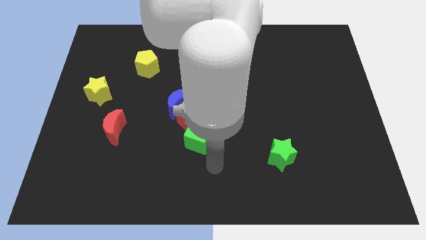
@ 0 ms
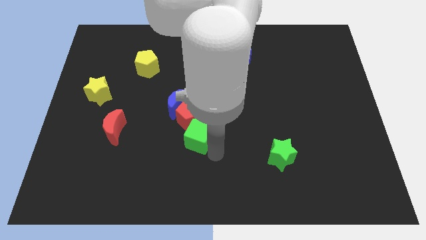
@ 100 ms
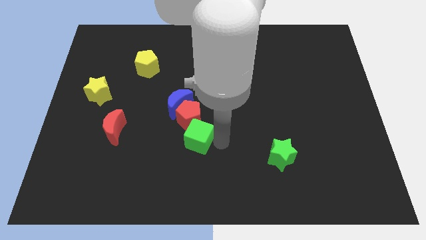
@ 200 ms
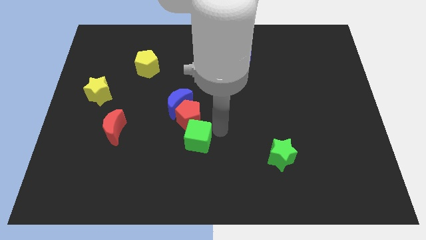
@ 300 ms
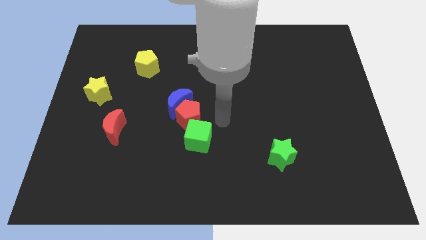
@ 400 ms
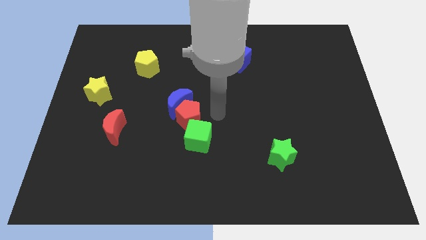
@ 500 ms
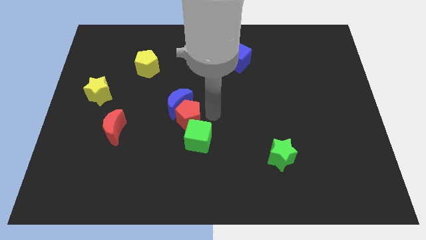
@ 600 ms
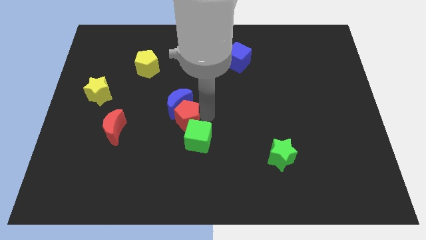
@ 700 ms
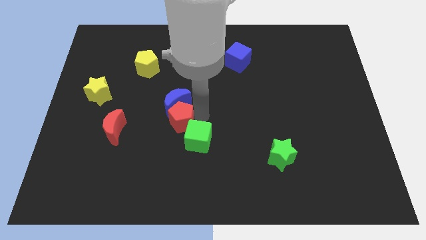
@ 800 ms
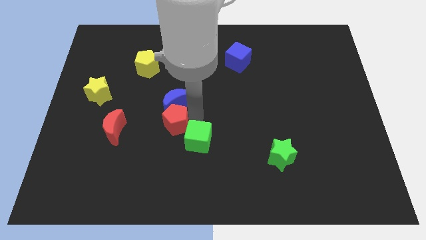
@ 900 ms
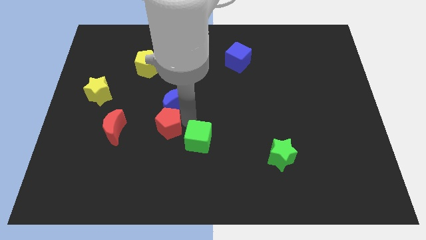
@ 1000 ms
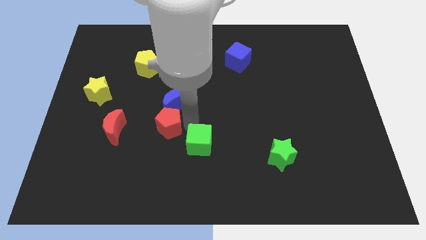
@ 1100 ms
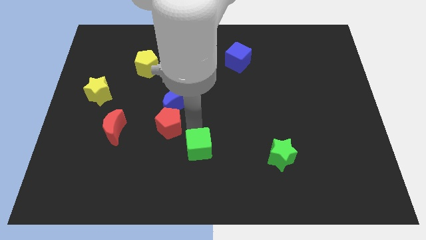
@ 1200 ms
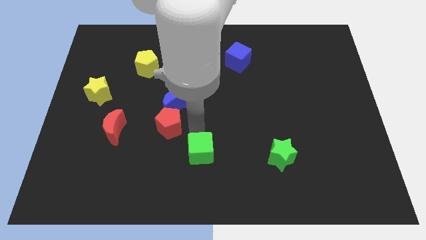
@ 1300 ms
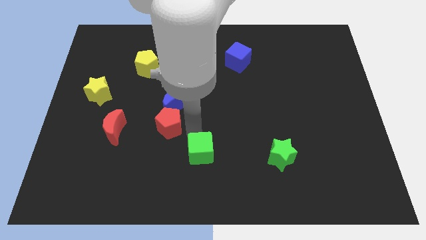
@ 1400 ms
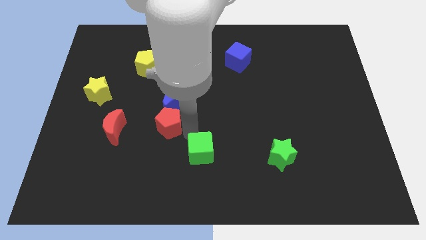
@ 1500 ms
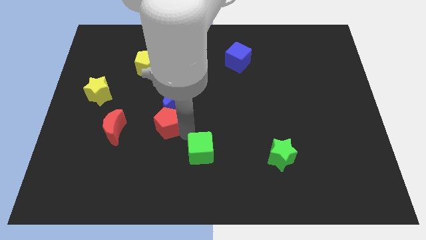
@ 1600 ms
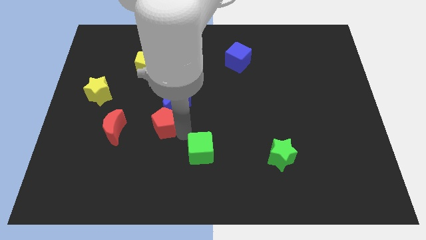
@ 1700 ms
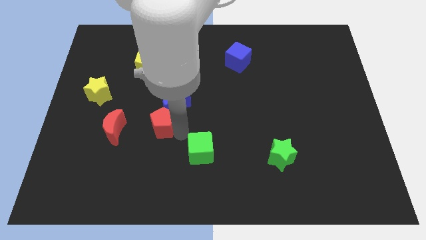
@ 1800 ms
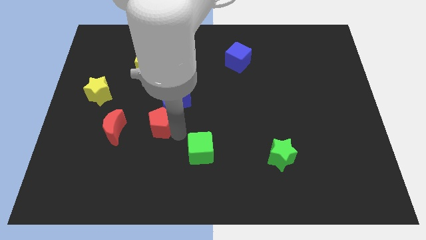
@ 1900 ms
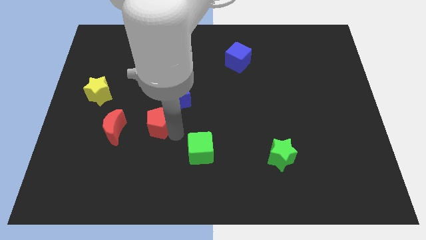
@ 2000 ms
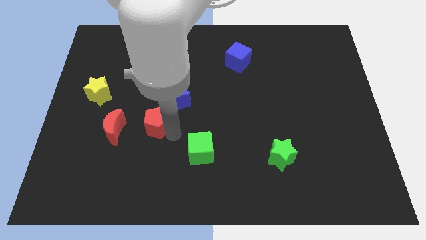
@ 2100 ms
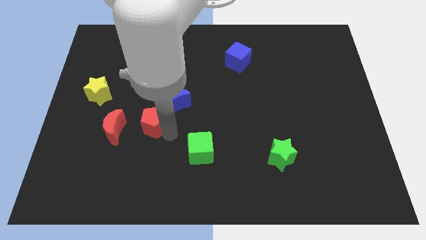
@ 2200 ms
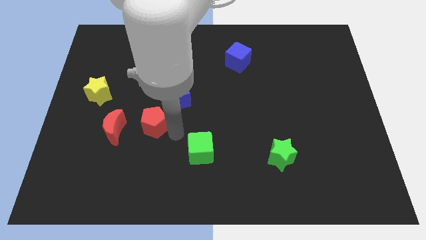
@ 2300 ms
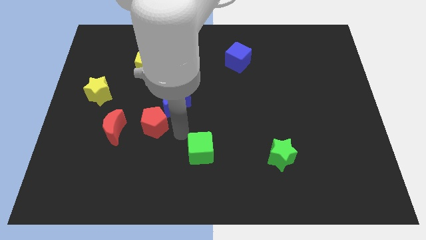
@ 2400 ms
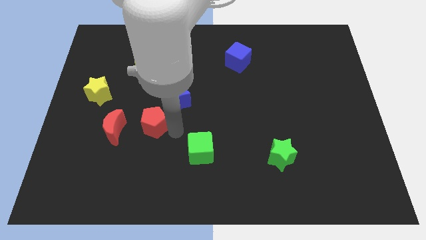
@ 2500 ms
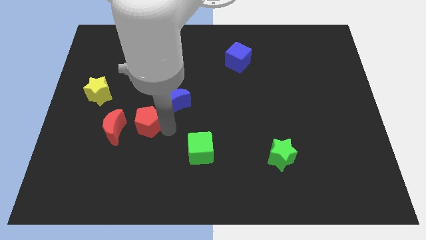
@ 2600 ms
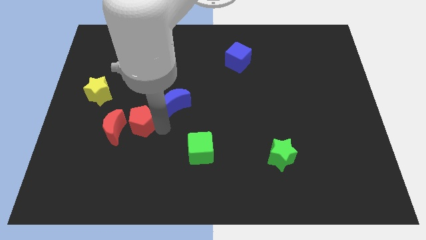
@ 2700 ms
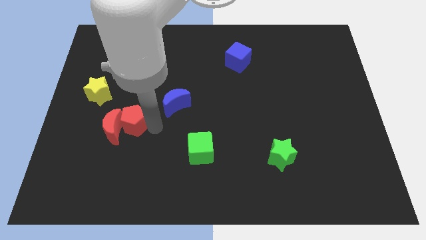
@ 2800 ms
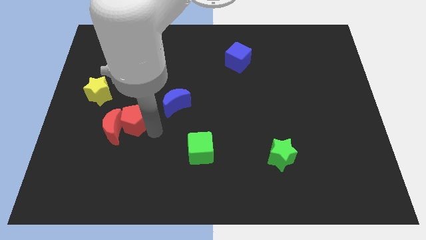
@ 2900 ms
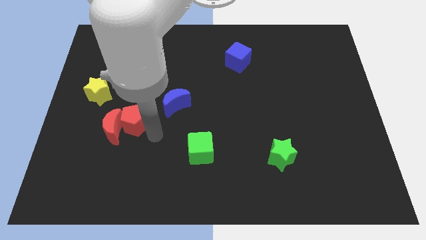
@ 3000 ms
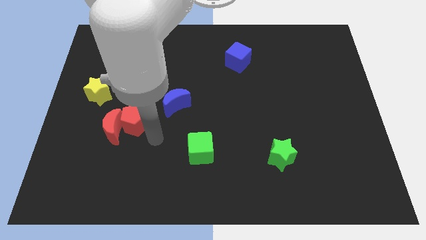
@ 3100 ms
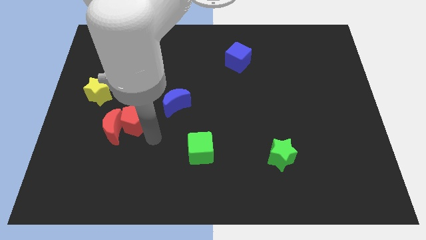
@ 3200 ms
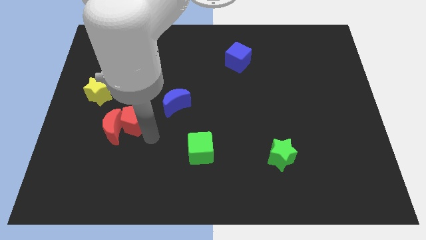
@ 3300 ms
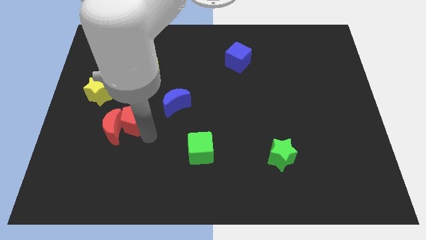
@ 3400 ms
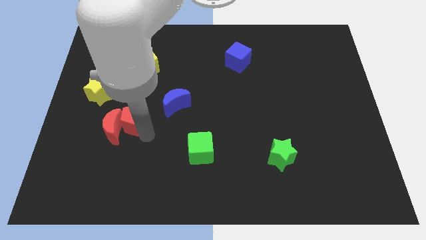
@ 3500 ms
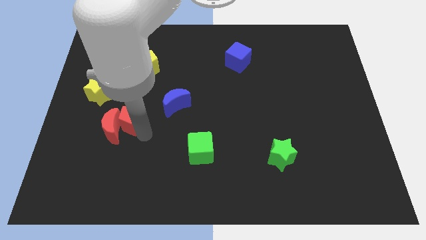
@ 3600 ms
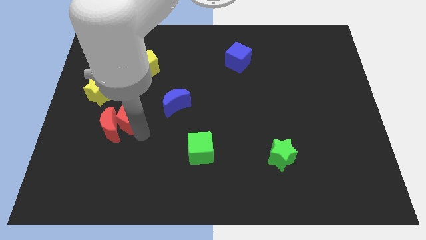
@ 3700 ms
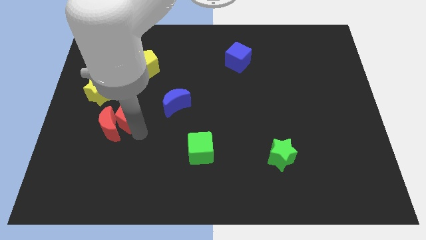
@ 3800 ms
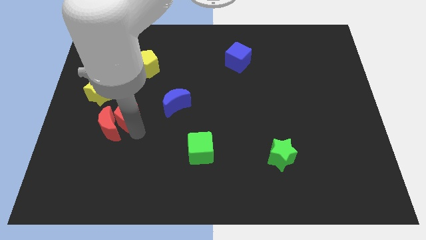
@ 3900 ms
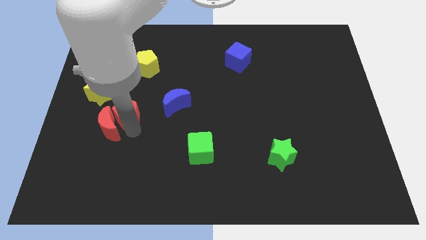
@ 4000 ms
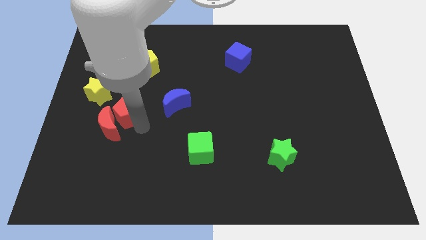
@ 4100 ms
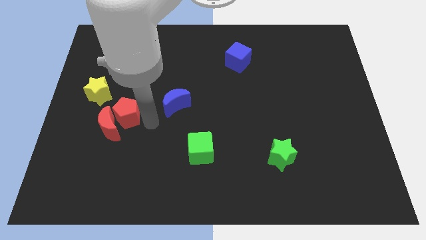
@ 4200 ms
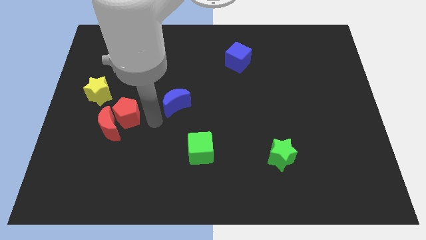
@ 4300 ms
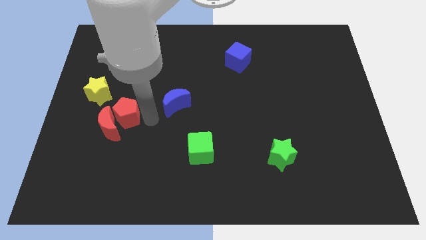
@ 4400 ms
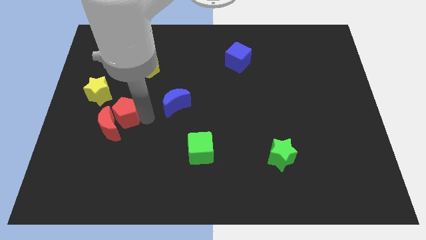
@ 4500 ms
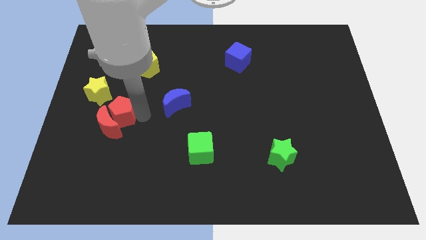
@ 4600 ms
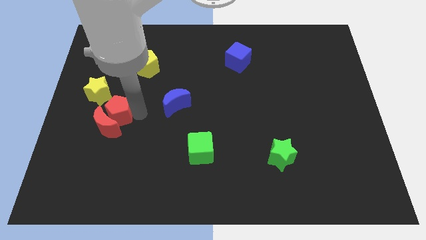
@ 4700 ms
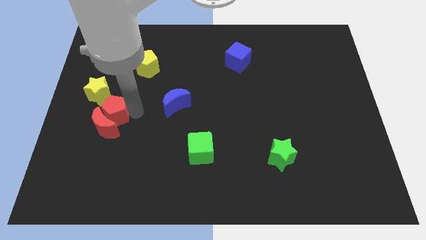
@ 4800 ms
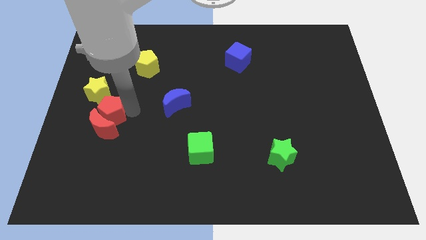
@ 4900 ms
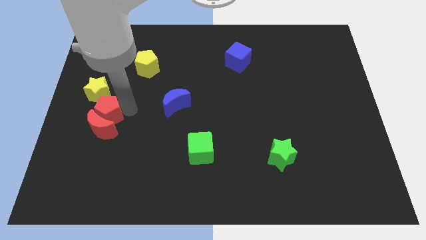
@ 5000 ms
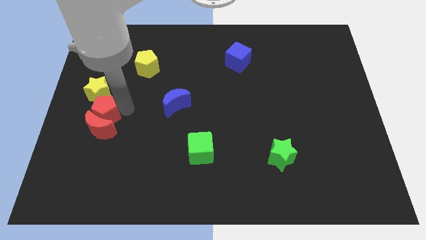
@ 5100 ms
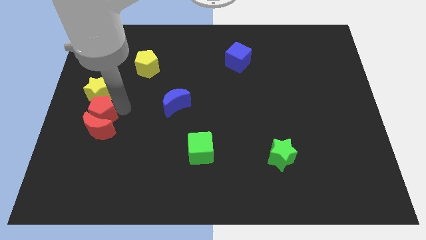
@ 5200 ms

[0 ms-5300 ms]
put the red pentagon to the center left
